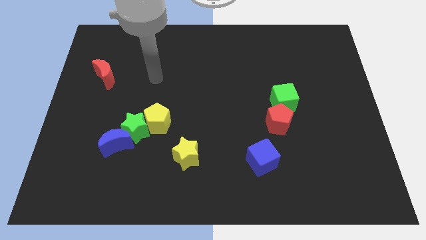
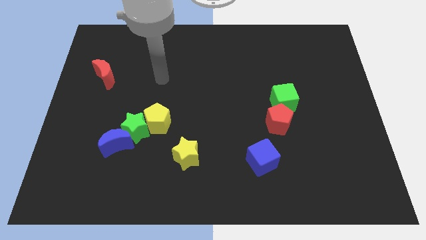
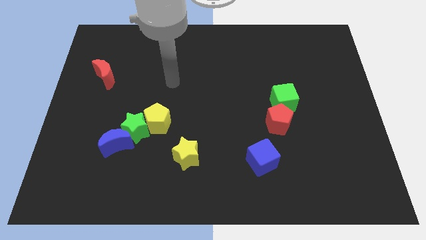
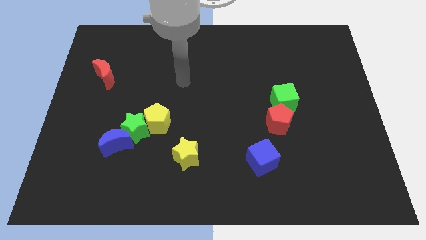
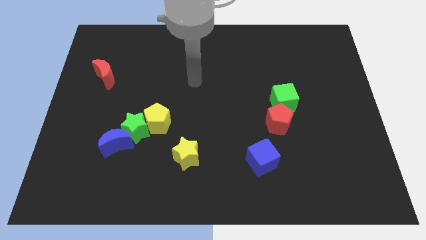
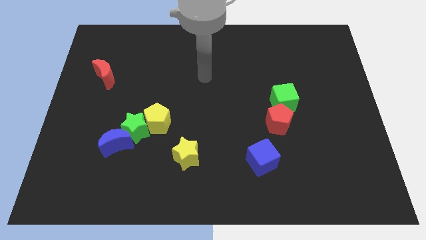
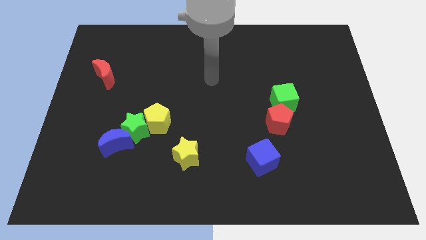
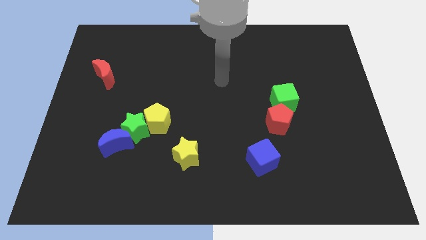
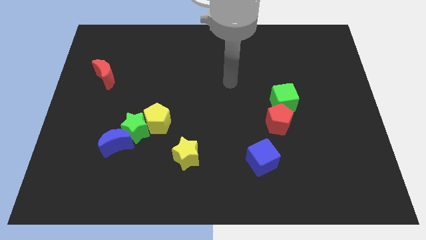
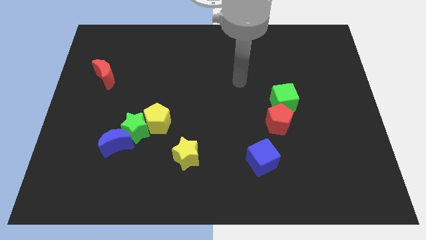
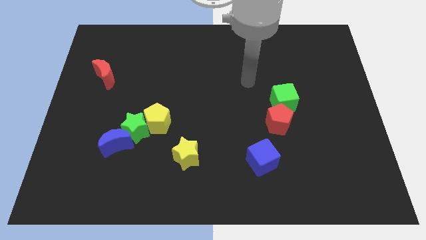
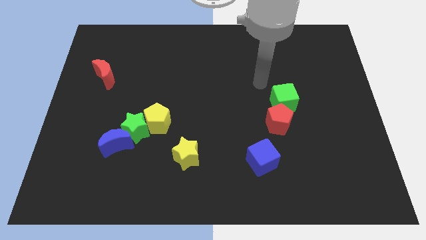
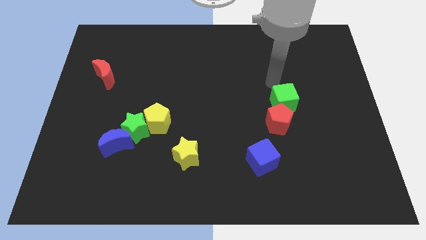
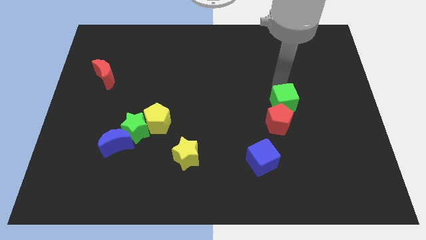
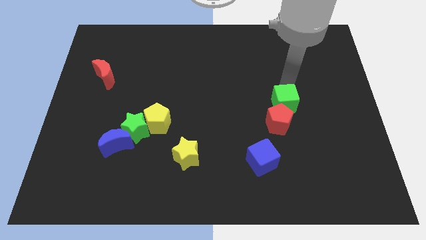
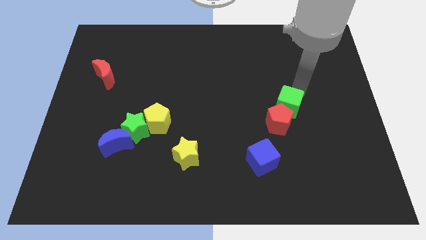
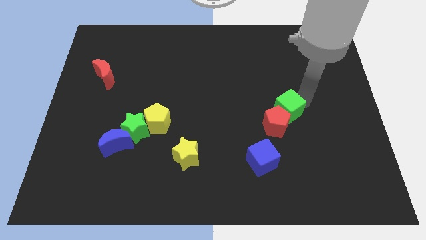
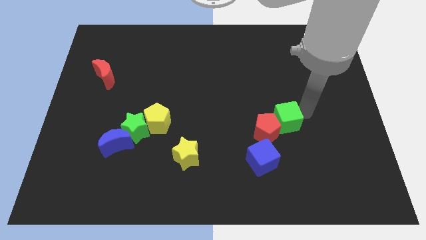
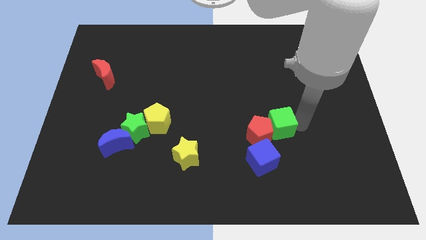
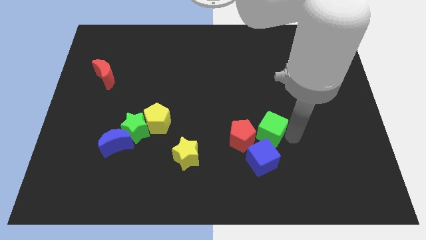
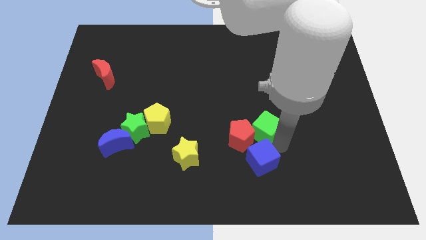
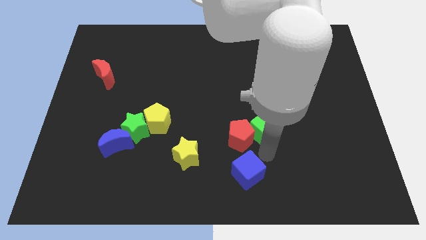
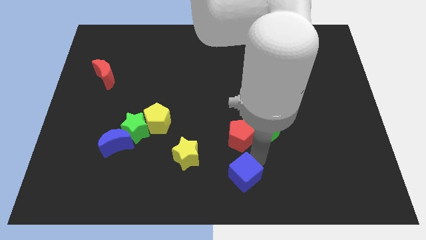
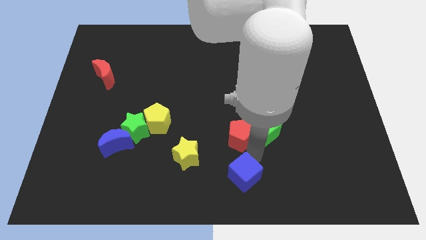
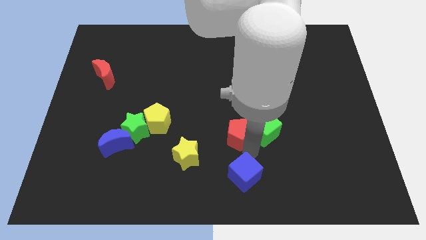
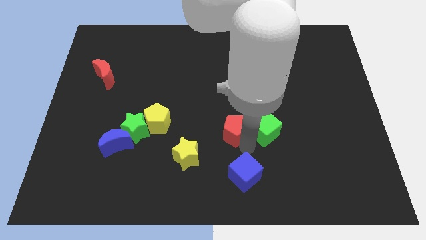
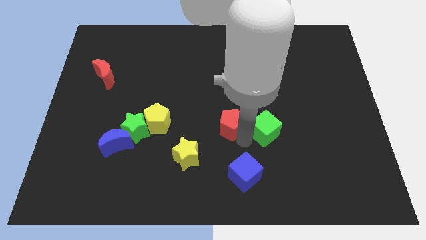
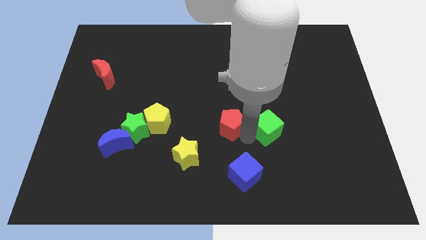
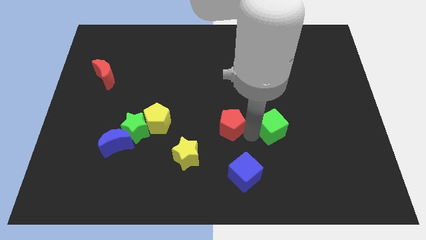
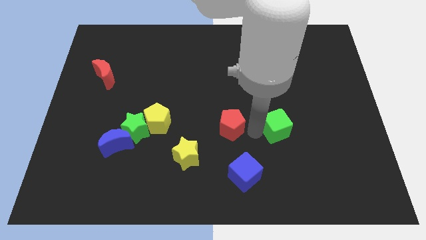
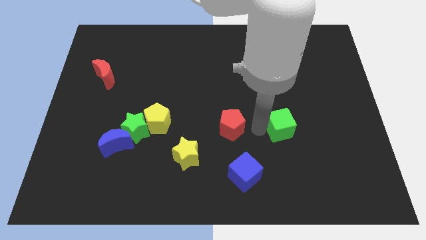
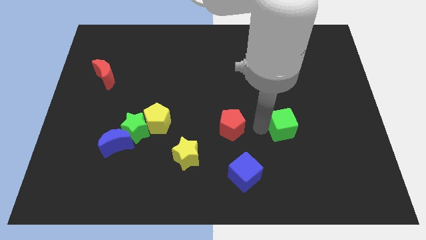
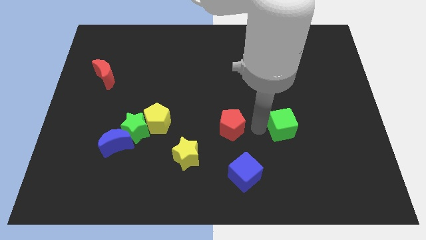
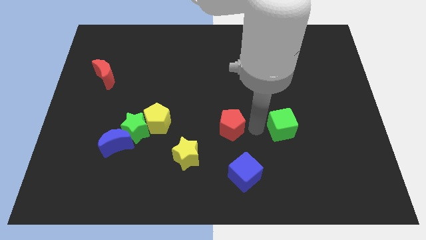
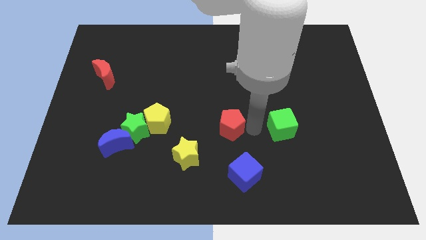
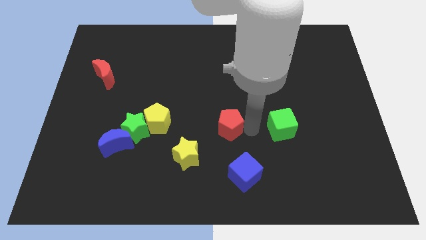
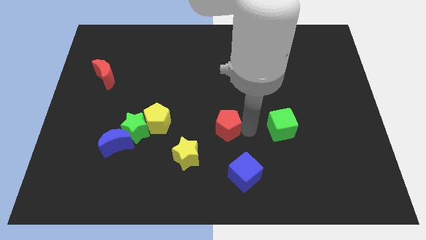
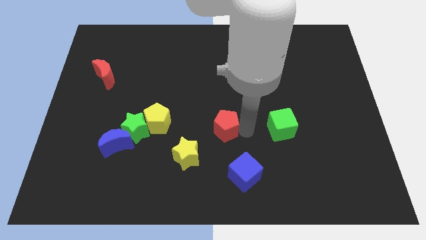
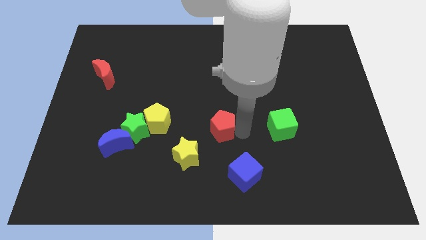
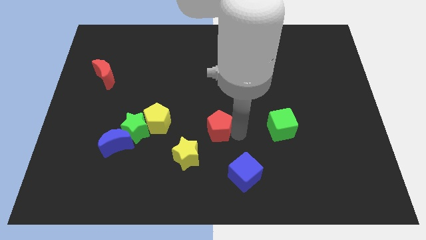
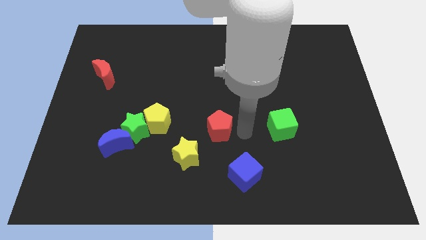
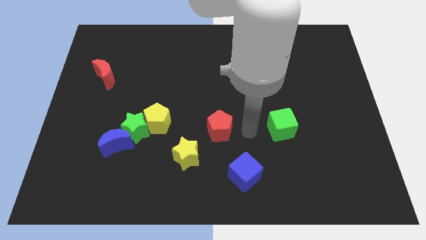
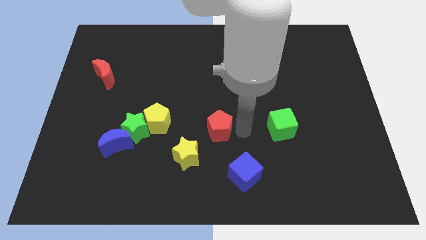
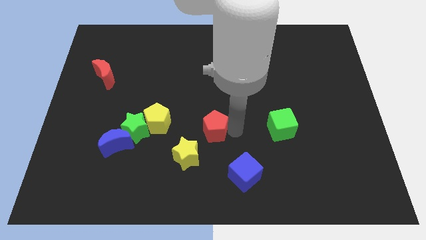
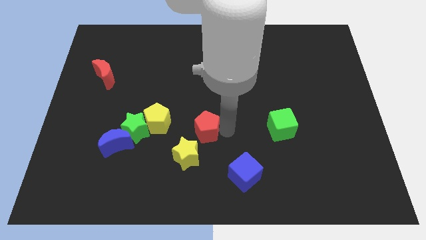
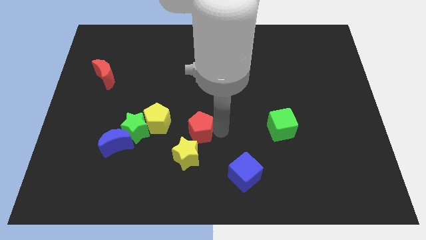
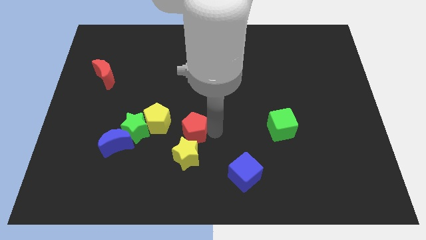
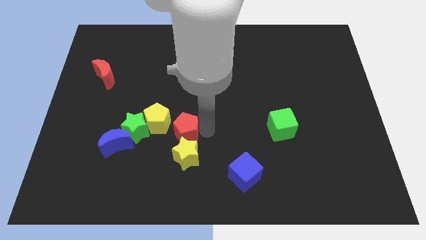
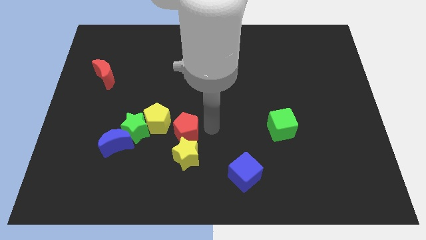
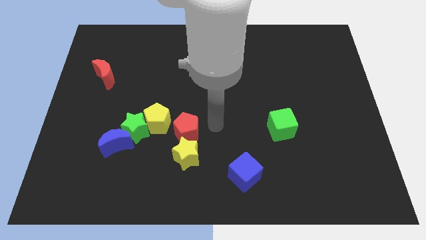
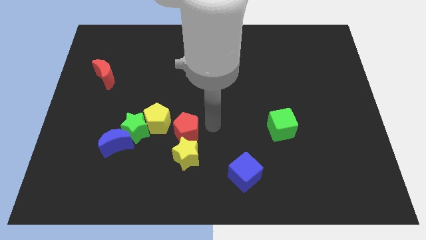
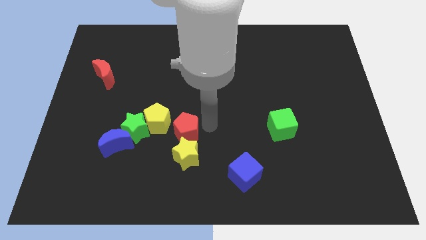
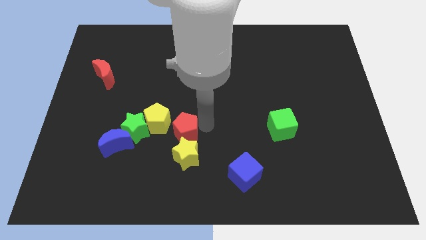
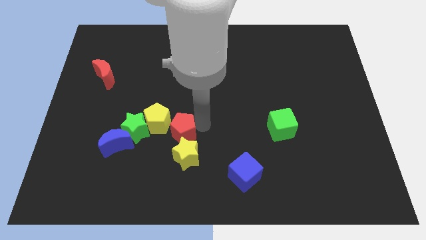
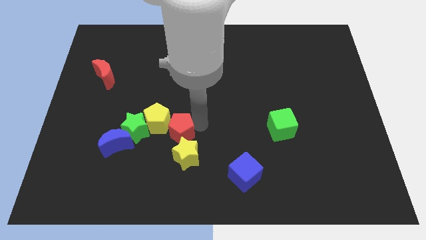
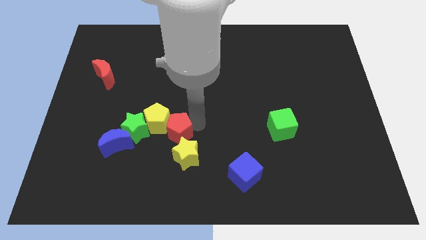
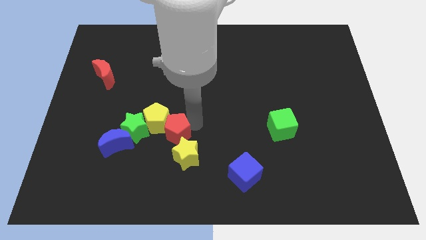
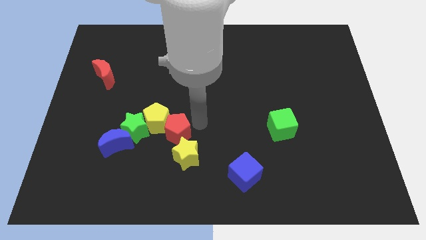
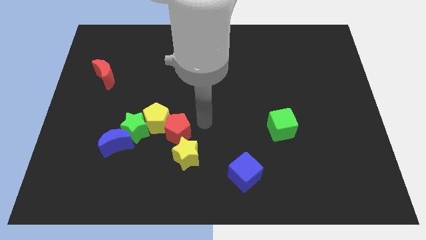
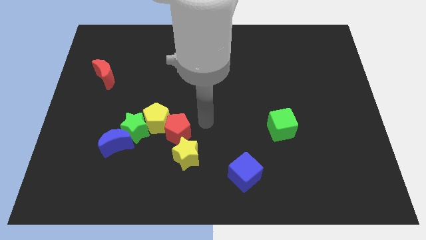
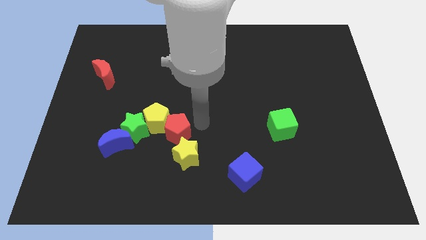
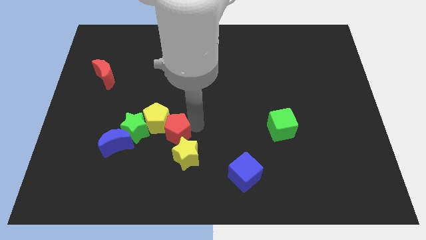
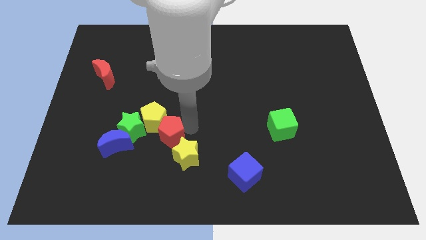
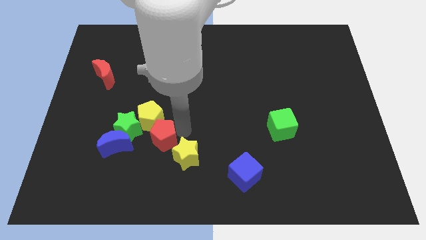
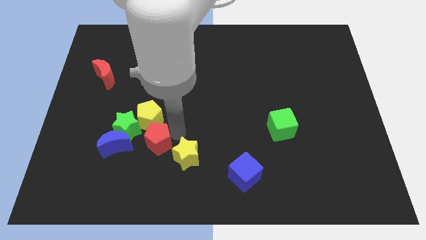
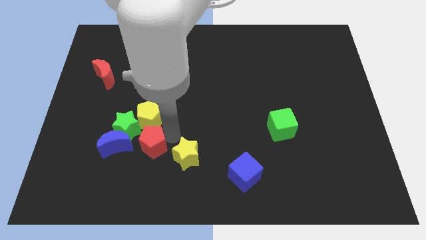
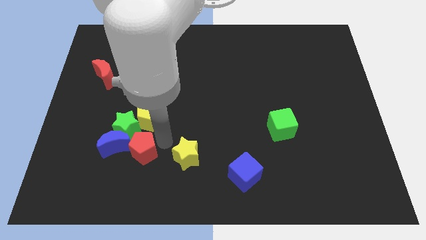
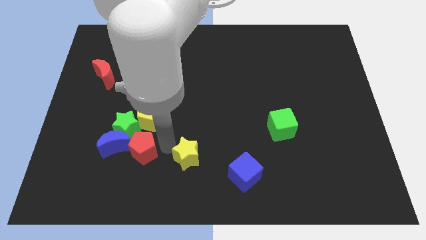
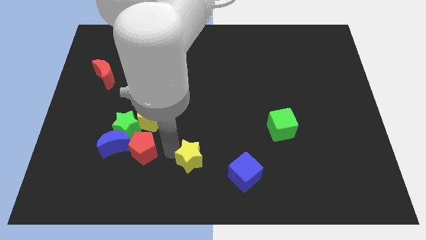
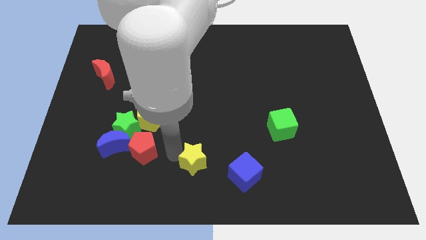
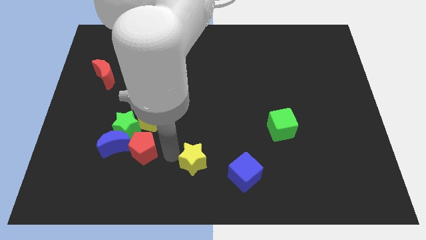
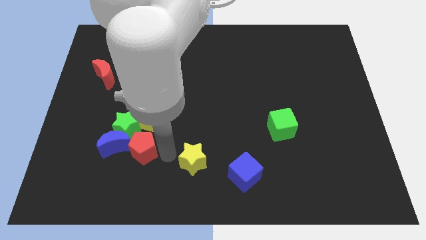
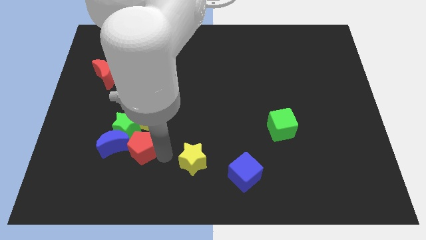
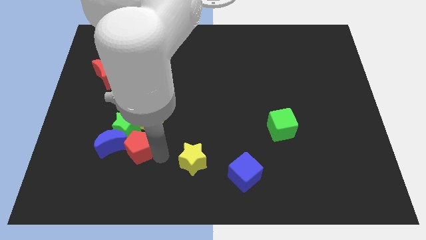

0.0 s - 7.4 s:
put the red pentagon next to the blue moon
